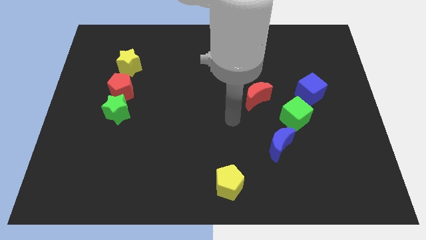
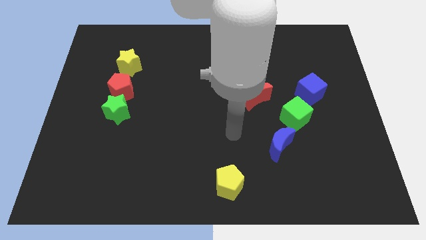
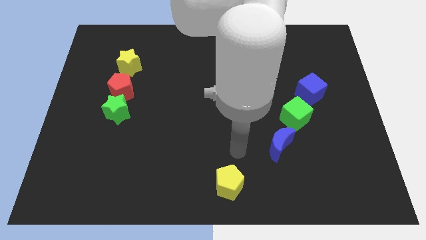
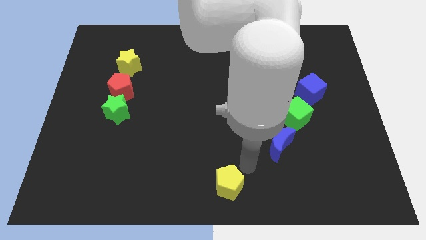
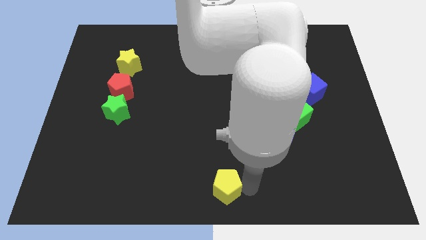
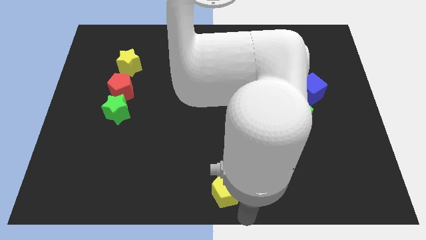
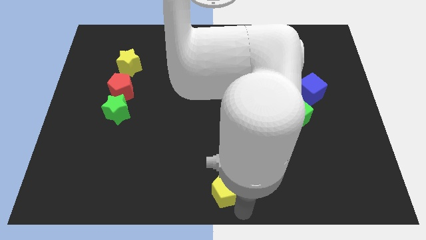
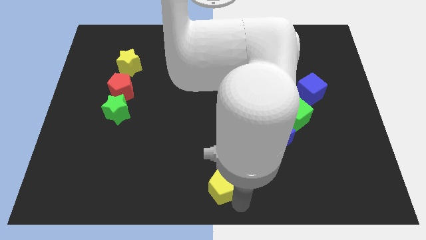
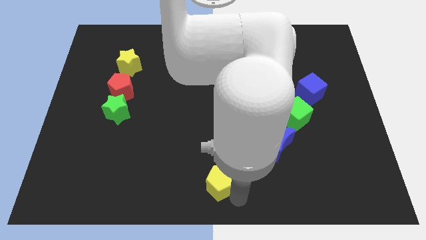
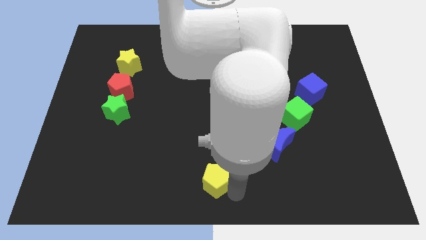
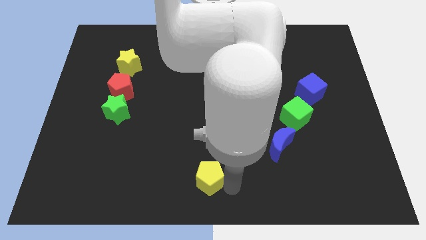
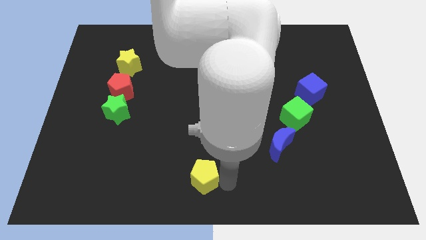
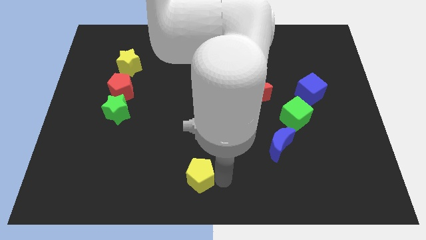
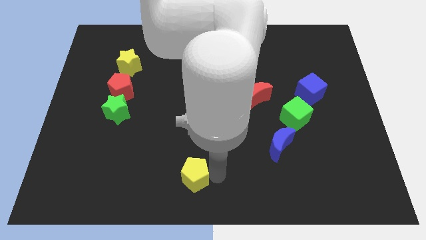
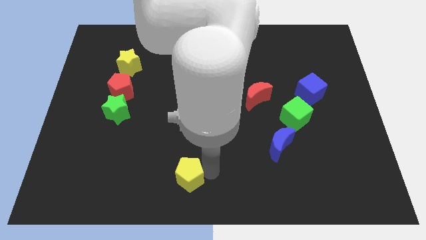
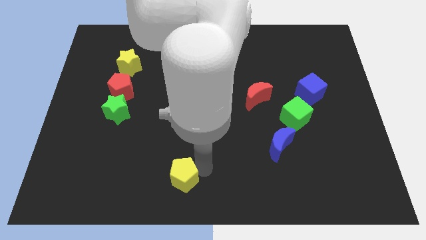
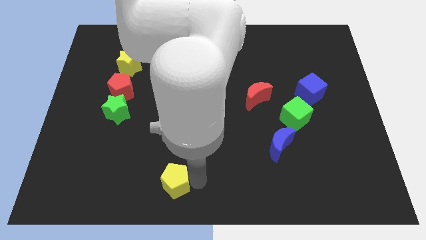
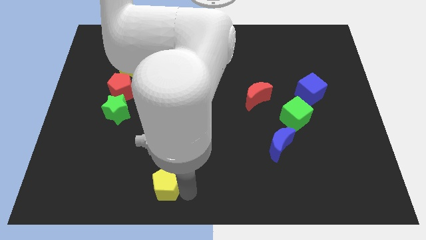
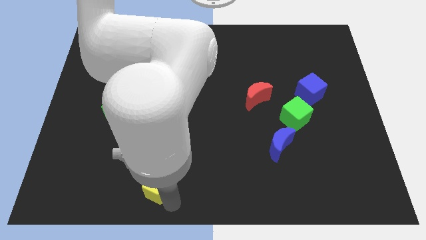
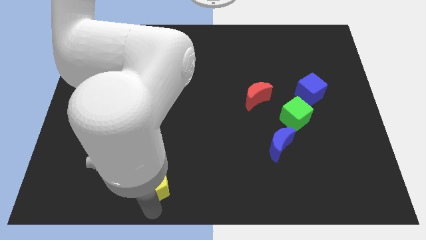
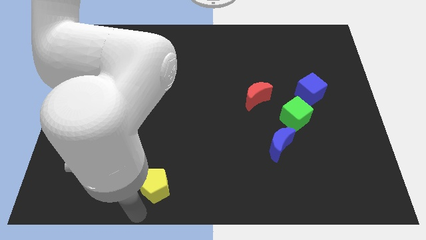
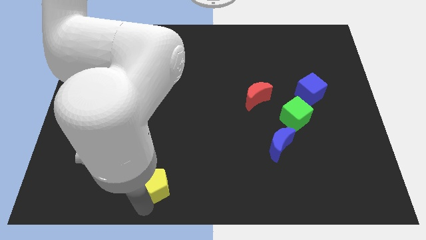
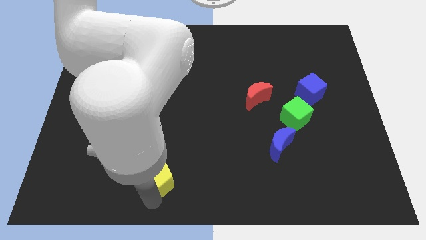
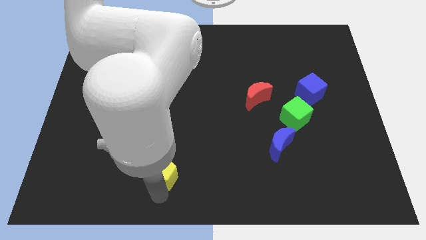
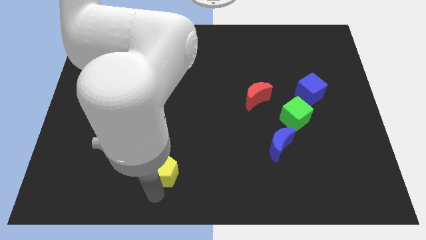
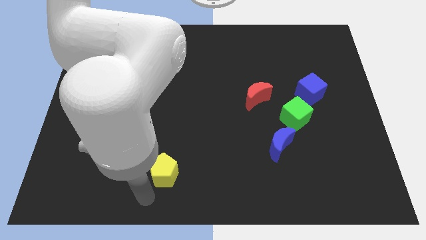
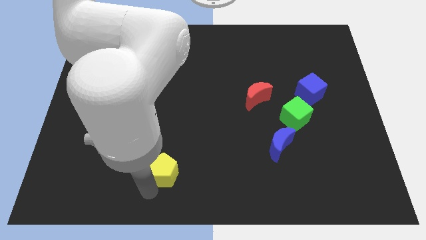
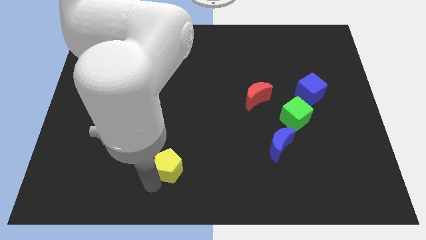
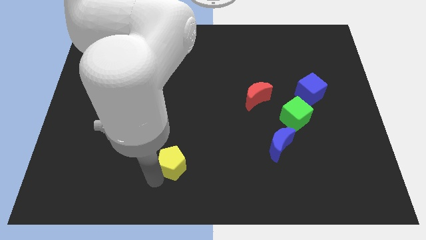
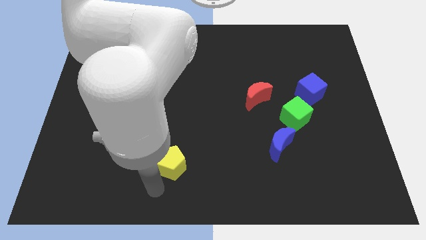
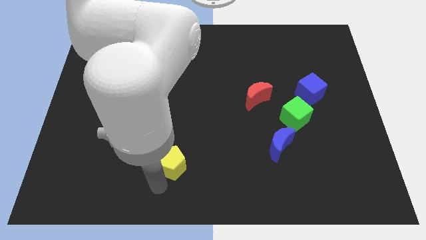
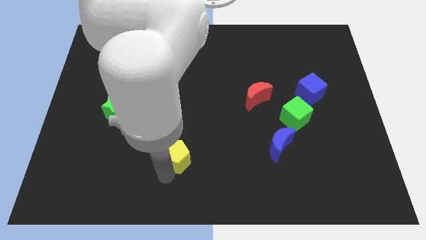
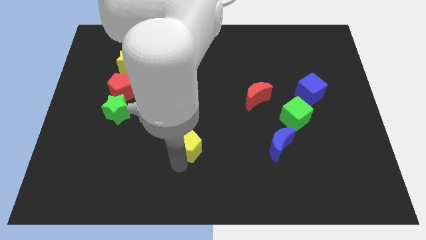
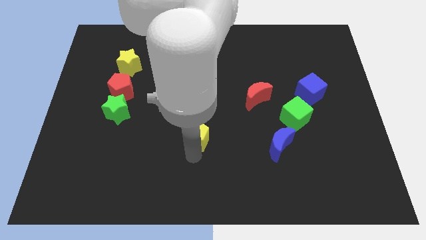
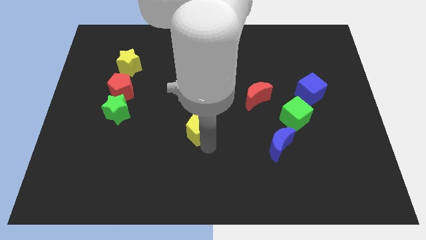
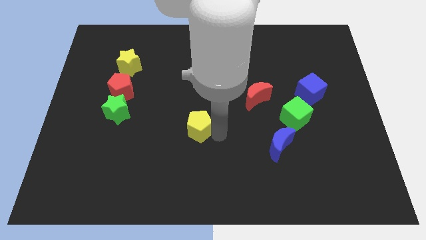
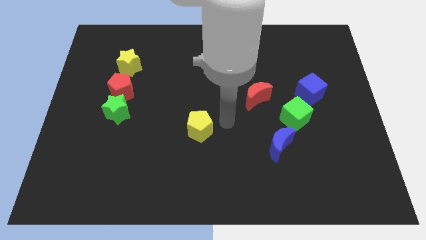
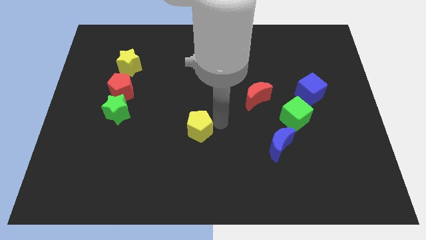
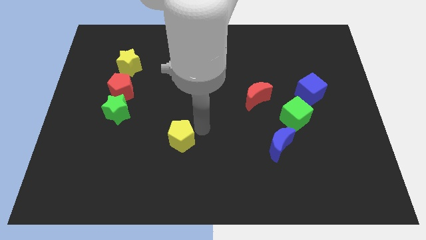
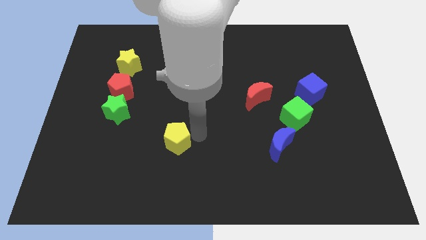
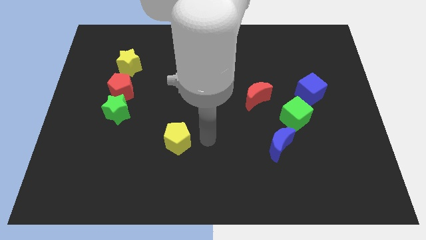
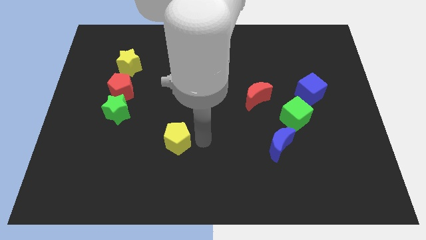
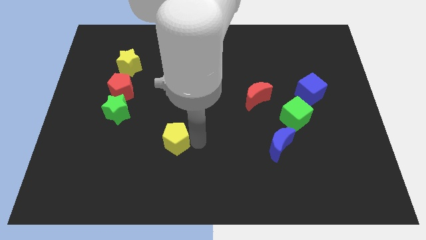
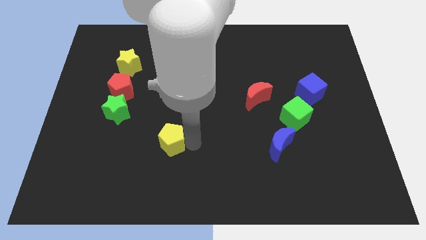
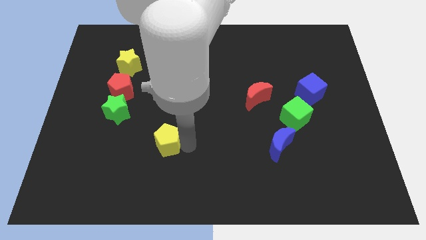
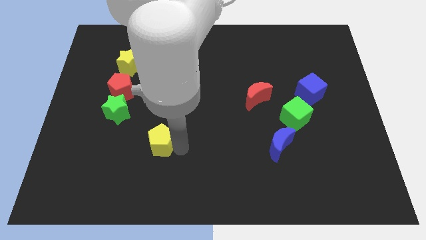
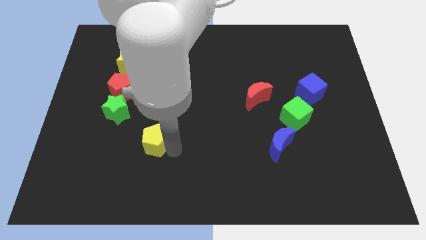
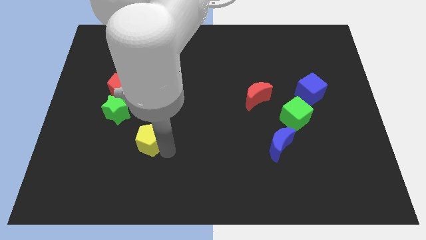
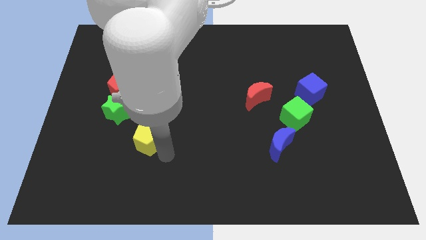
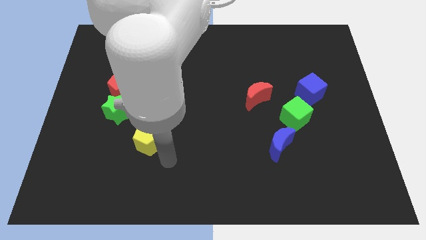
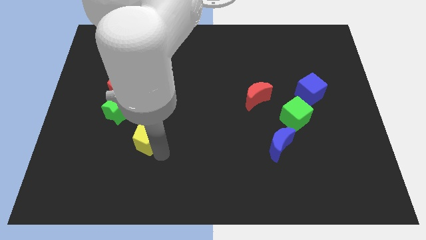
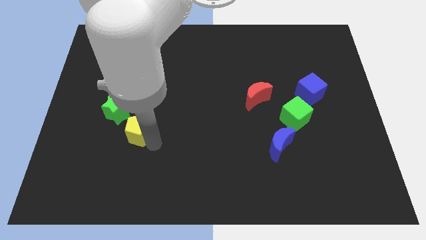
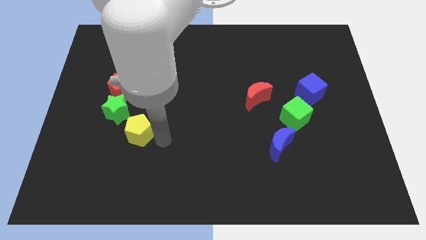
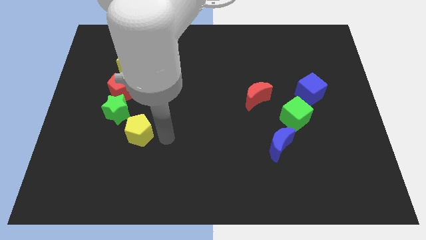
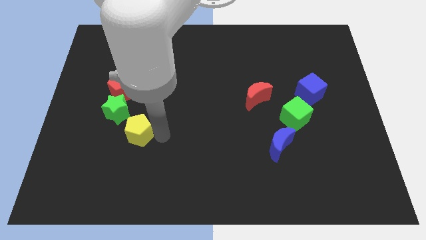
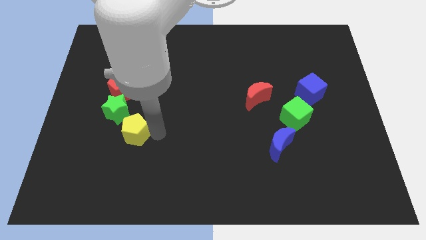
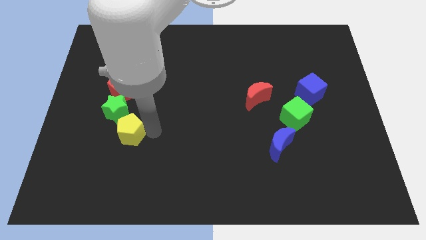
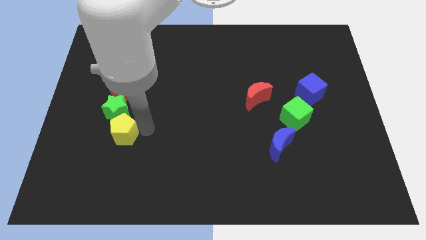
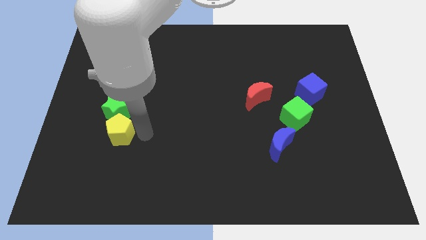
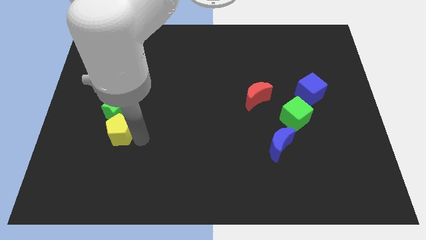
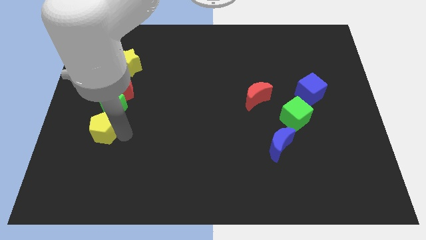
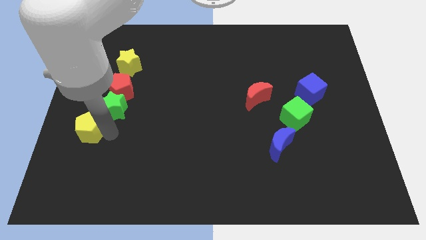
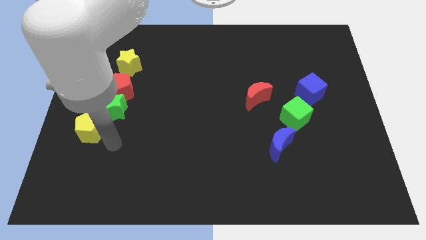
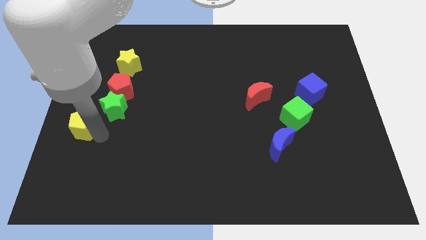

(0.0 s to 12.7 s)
slide the yellow pentagon to the center left
